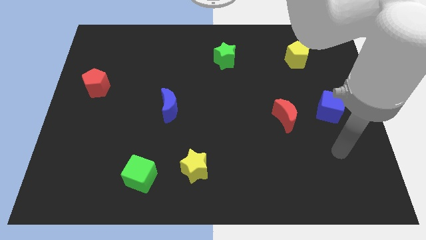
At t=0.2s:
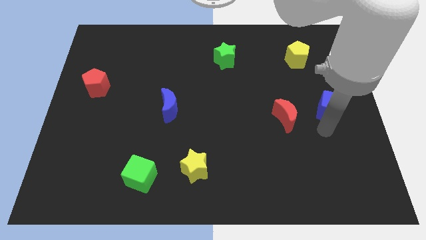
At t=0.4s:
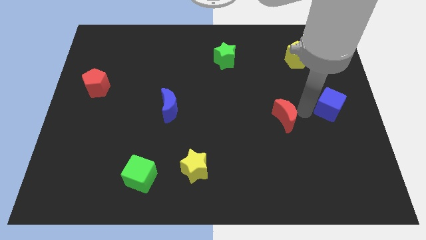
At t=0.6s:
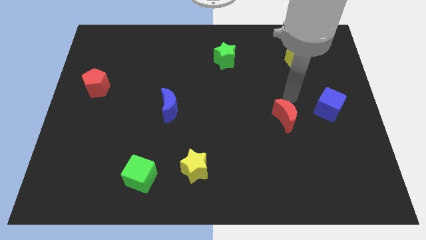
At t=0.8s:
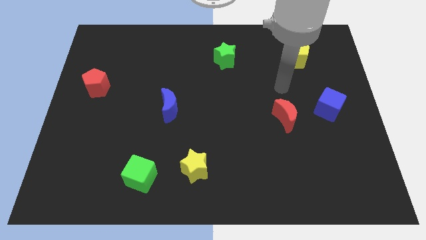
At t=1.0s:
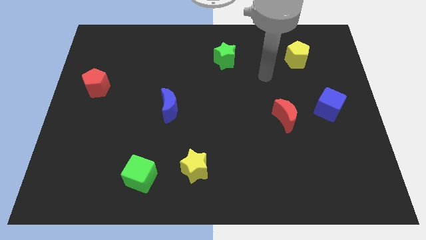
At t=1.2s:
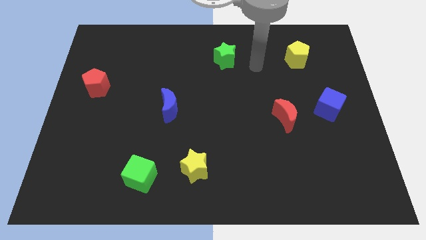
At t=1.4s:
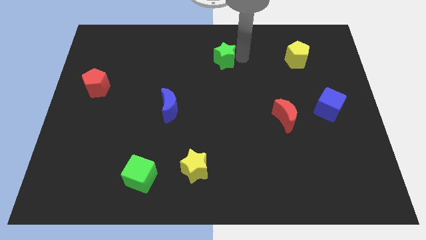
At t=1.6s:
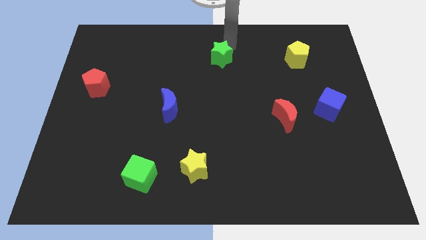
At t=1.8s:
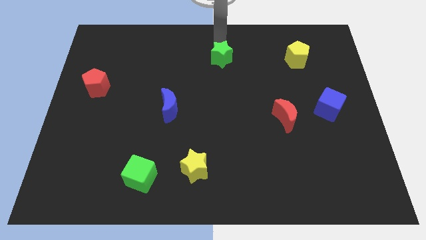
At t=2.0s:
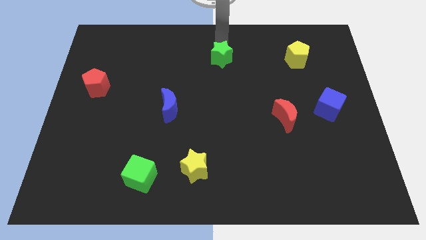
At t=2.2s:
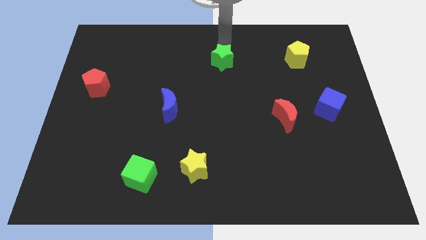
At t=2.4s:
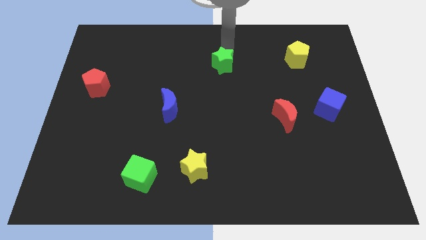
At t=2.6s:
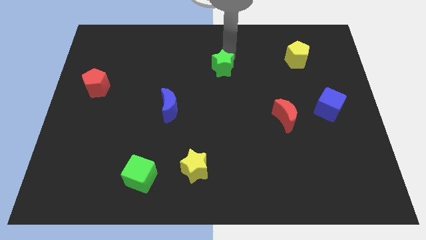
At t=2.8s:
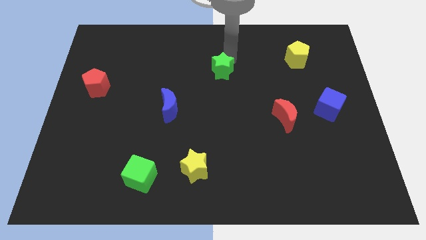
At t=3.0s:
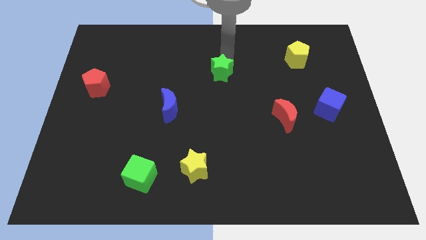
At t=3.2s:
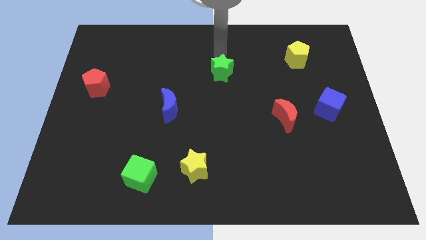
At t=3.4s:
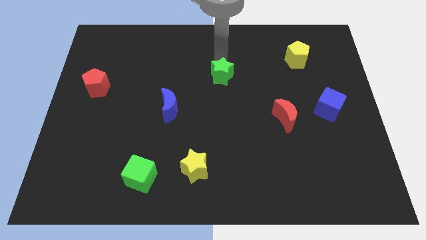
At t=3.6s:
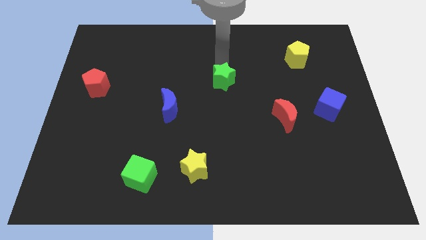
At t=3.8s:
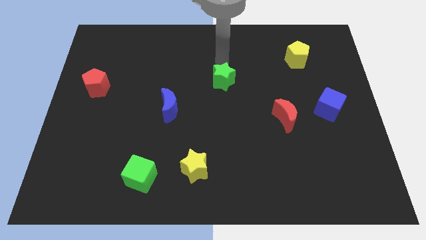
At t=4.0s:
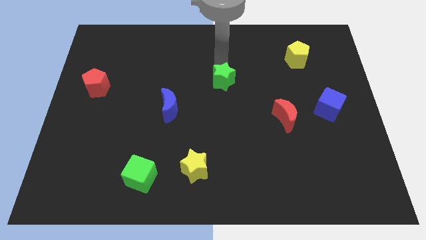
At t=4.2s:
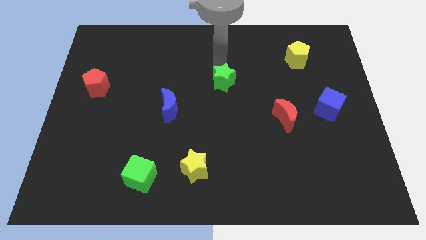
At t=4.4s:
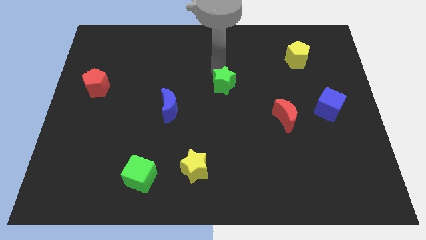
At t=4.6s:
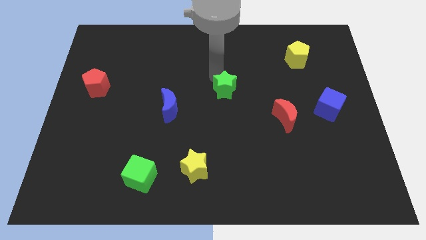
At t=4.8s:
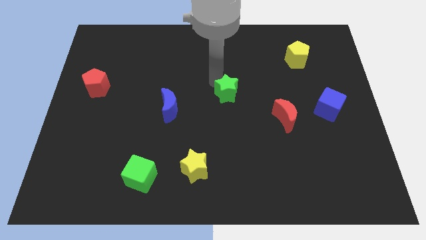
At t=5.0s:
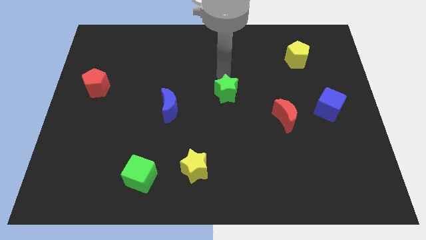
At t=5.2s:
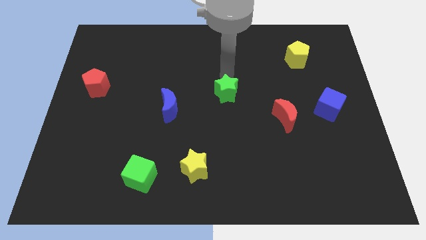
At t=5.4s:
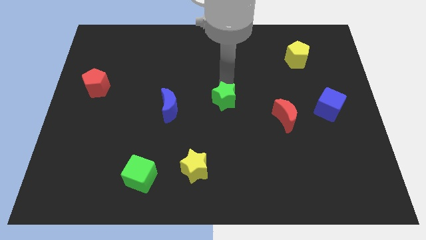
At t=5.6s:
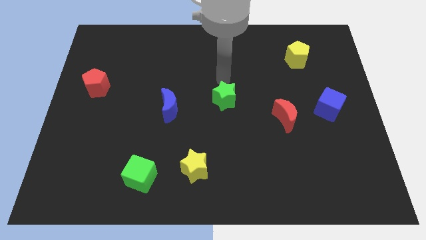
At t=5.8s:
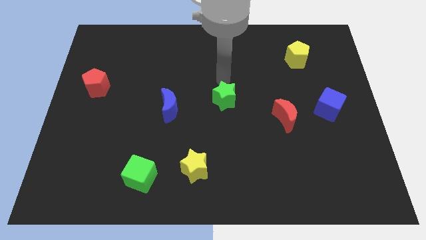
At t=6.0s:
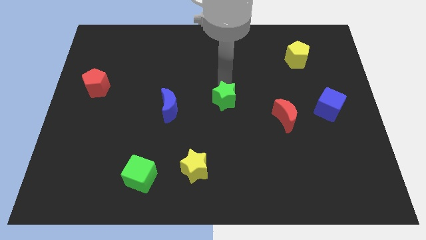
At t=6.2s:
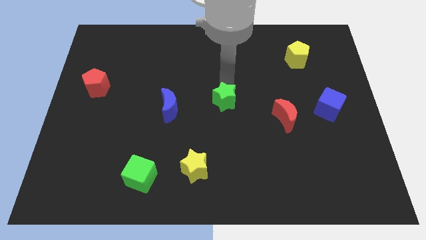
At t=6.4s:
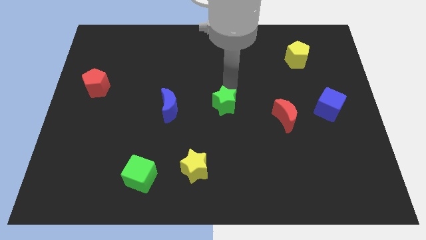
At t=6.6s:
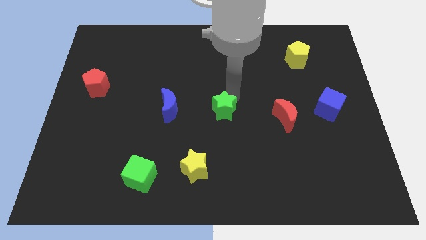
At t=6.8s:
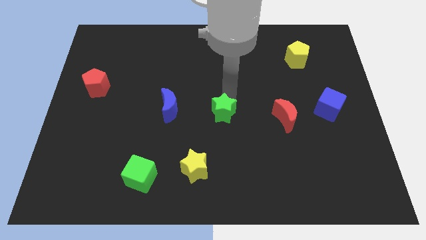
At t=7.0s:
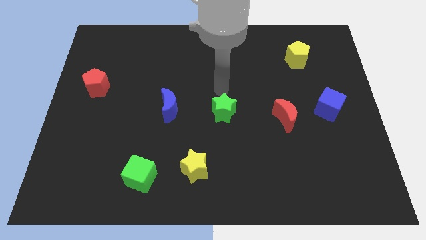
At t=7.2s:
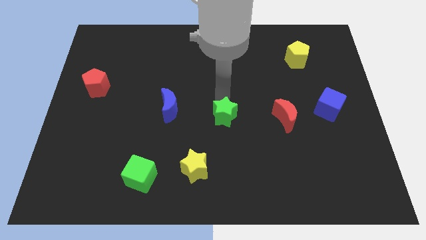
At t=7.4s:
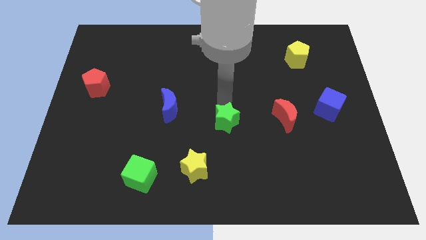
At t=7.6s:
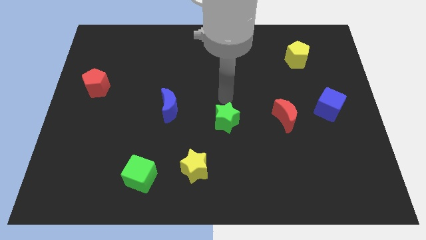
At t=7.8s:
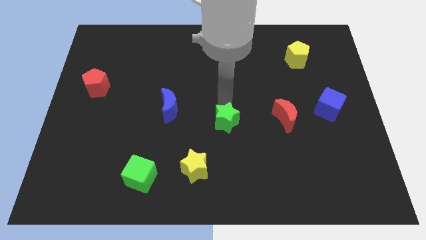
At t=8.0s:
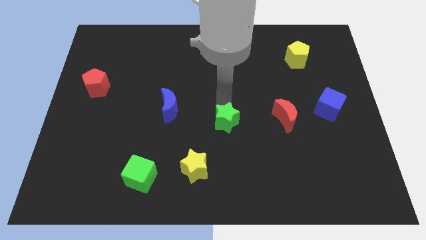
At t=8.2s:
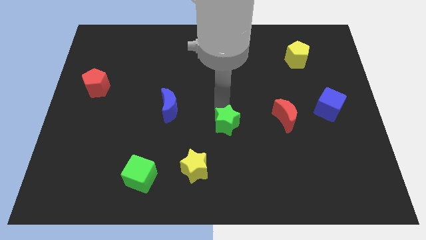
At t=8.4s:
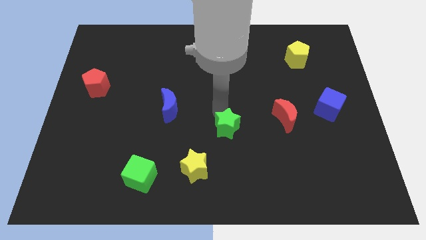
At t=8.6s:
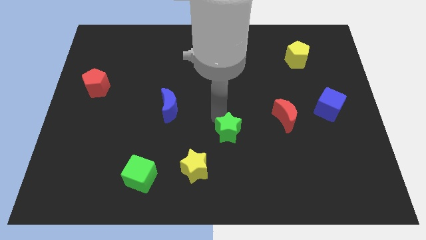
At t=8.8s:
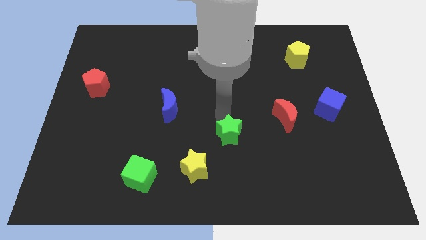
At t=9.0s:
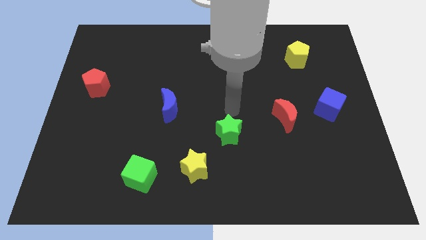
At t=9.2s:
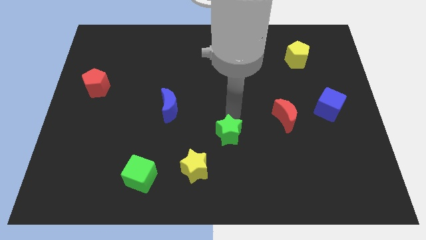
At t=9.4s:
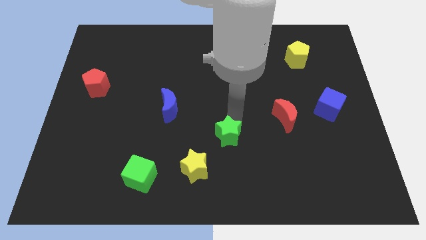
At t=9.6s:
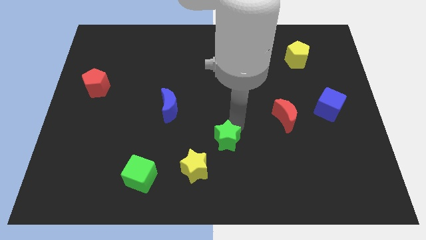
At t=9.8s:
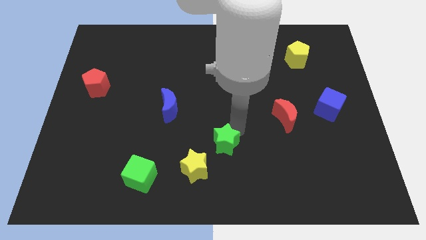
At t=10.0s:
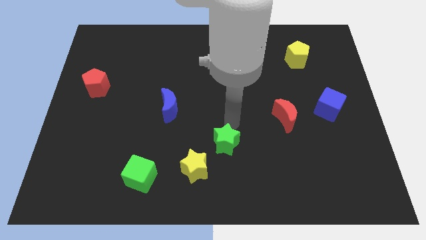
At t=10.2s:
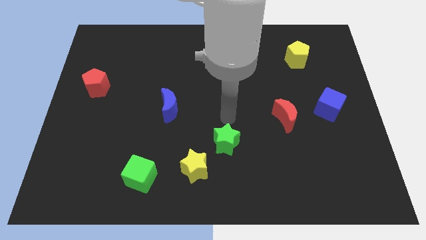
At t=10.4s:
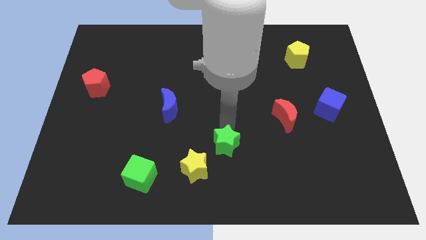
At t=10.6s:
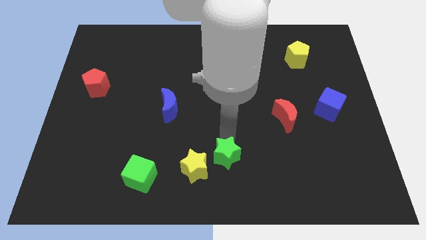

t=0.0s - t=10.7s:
move the green star to the bottom
